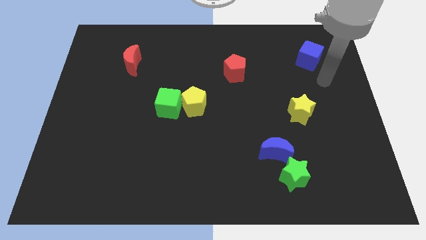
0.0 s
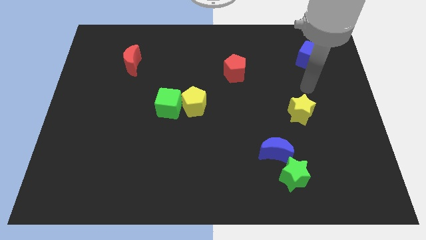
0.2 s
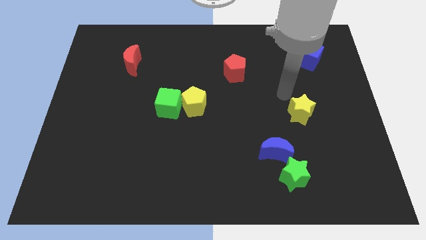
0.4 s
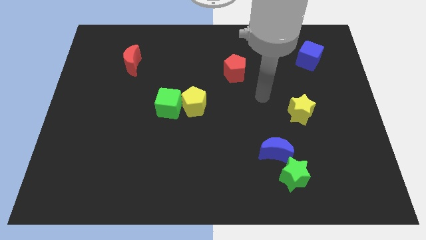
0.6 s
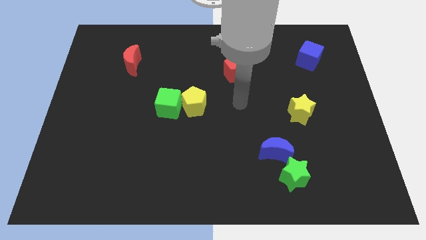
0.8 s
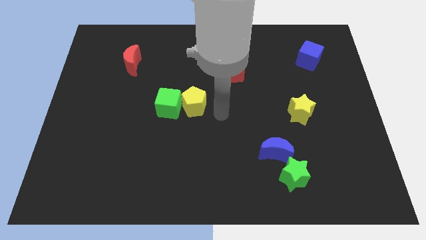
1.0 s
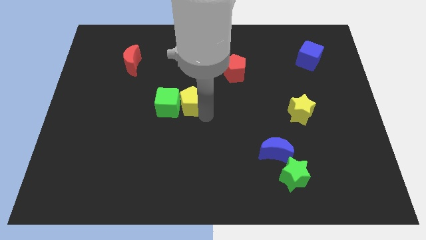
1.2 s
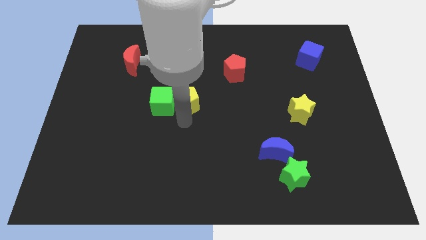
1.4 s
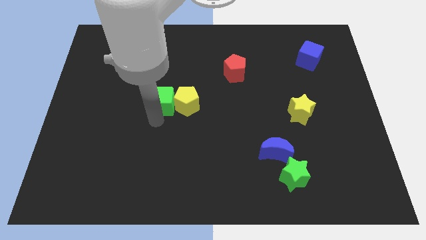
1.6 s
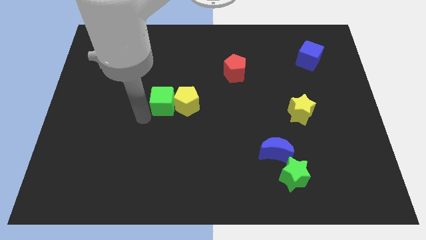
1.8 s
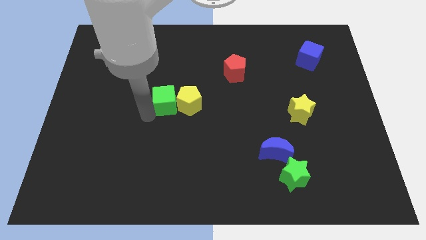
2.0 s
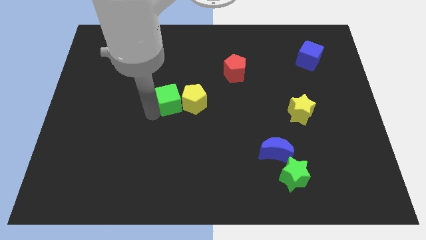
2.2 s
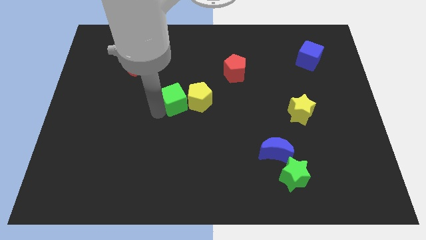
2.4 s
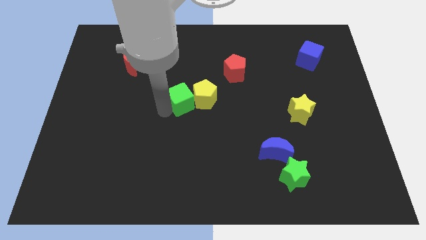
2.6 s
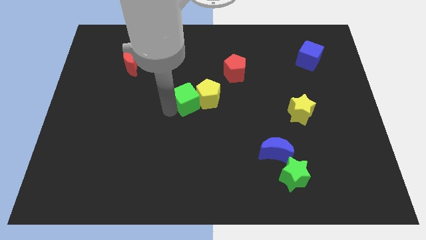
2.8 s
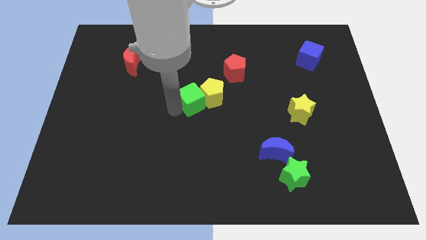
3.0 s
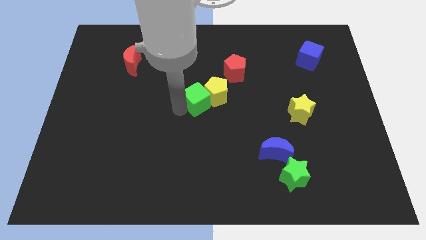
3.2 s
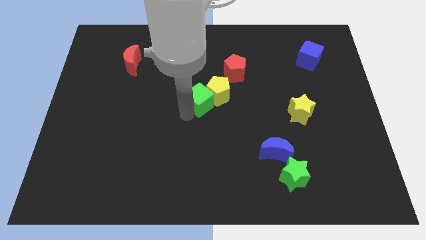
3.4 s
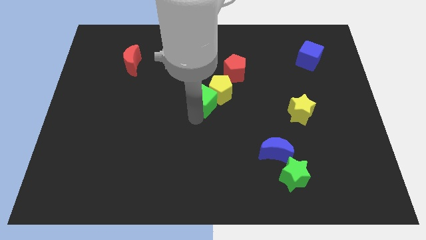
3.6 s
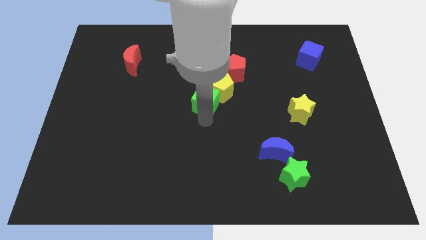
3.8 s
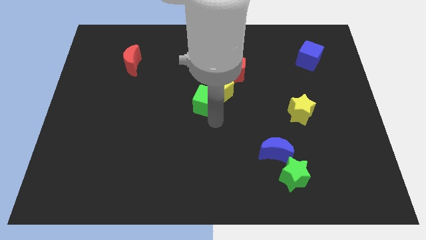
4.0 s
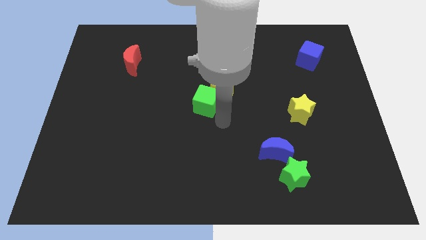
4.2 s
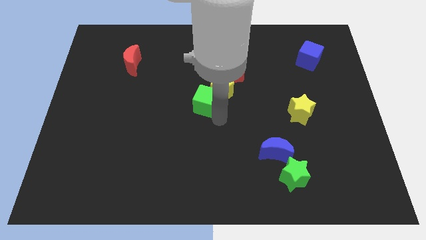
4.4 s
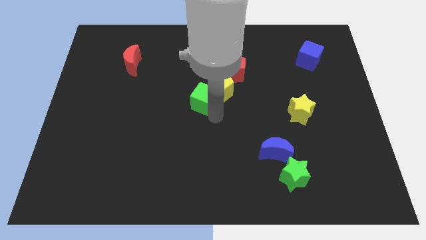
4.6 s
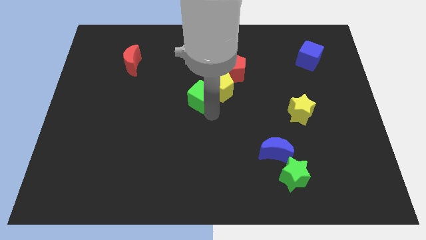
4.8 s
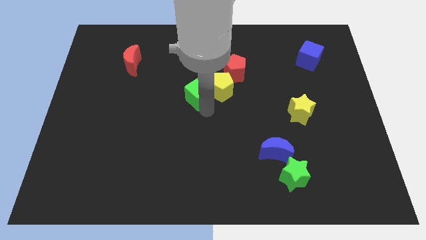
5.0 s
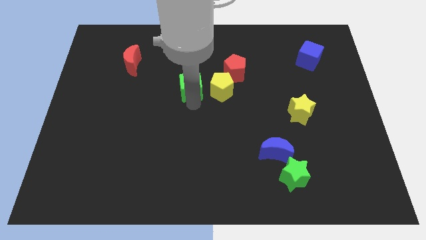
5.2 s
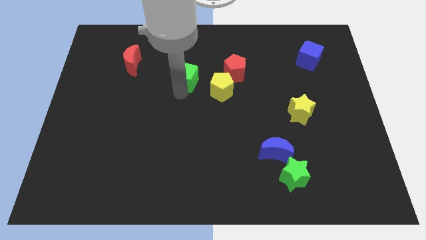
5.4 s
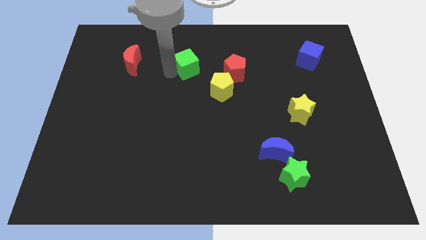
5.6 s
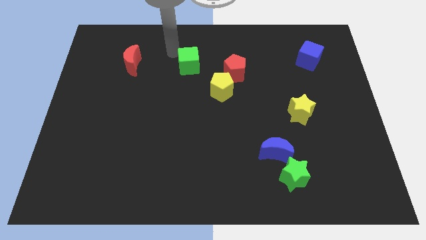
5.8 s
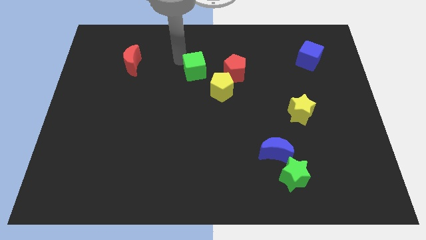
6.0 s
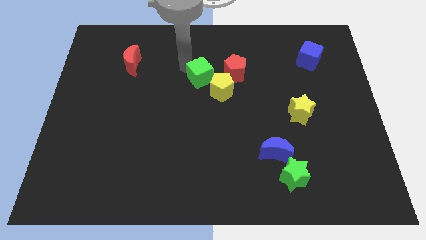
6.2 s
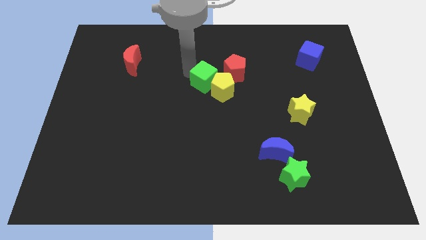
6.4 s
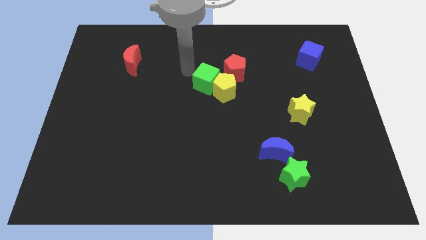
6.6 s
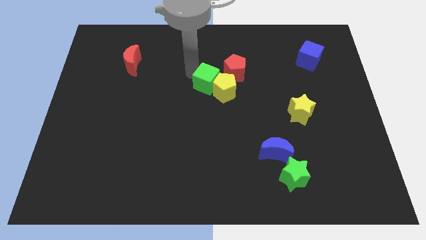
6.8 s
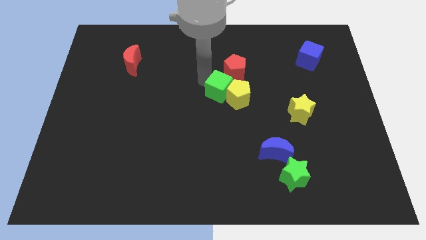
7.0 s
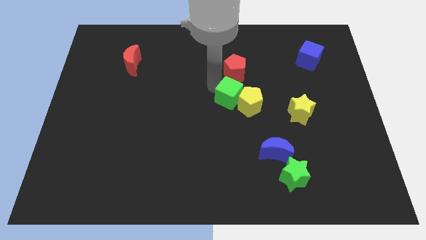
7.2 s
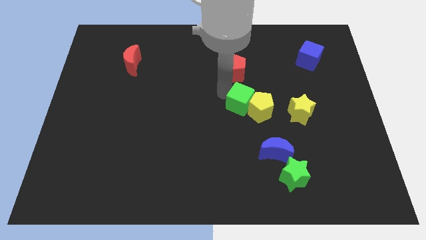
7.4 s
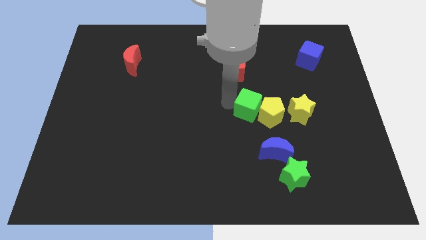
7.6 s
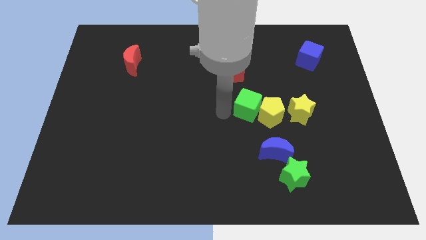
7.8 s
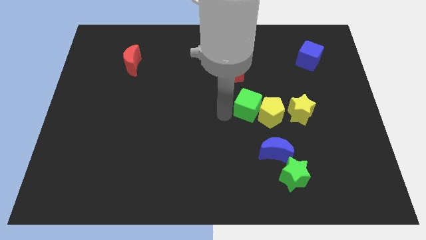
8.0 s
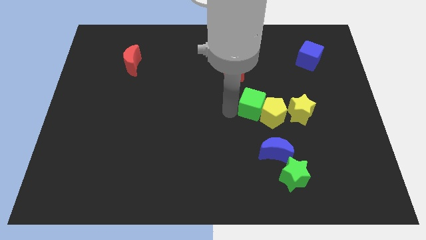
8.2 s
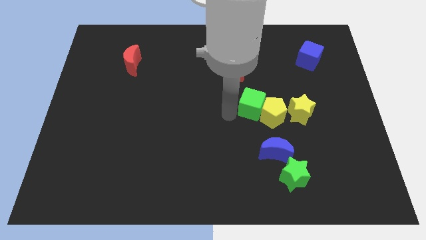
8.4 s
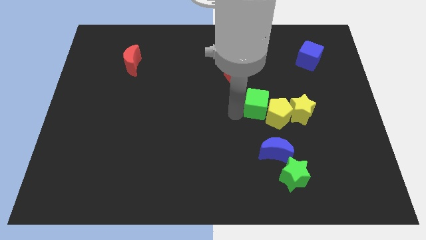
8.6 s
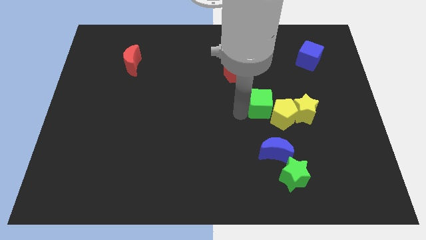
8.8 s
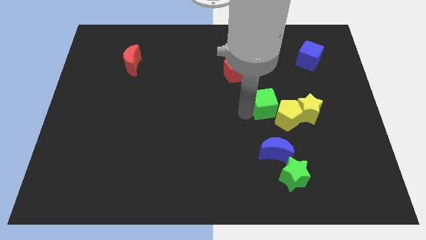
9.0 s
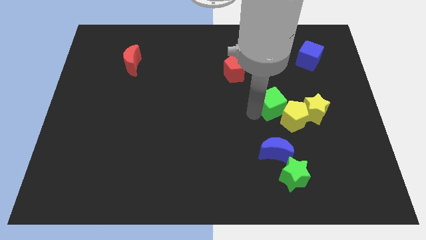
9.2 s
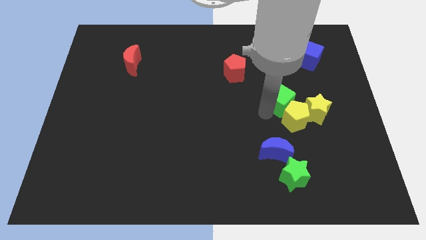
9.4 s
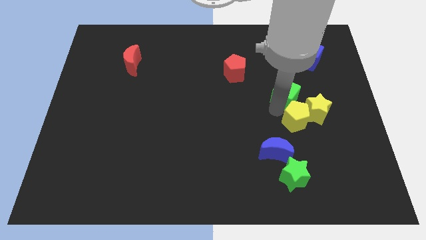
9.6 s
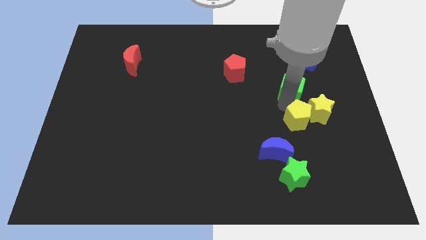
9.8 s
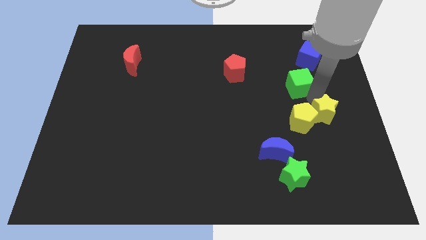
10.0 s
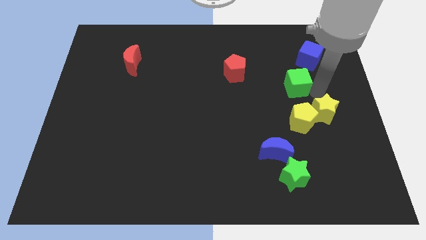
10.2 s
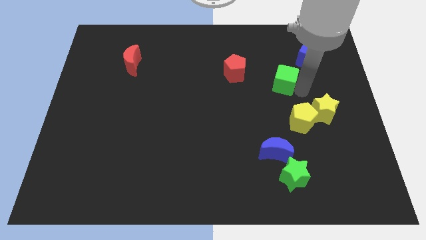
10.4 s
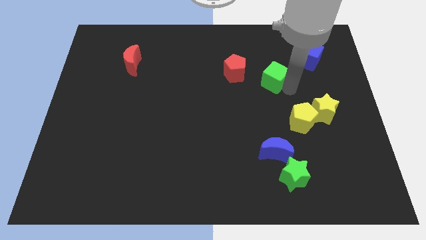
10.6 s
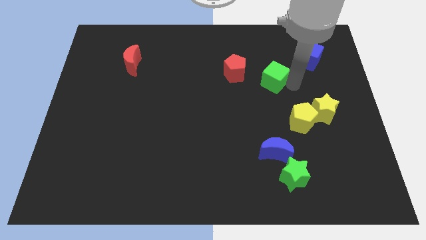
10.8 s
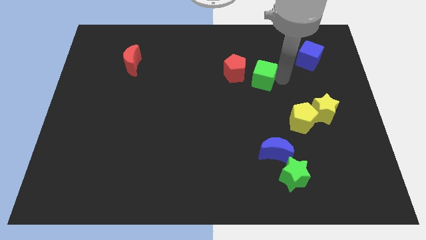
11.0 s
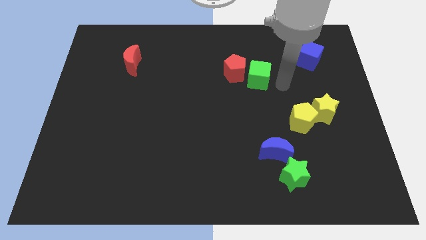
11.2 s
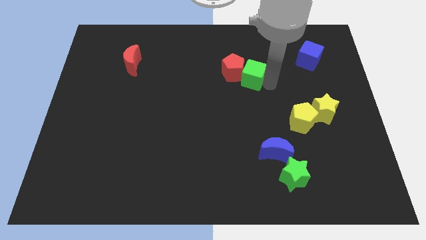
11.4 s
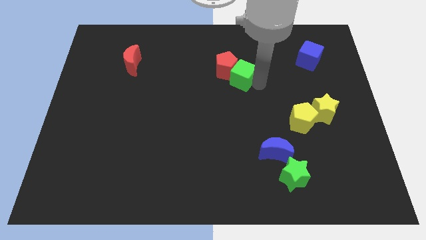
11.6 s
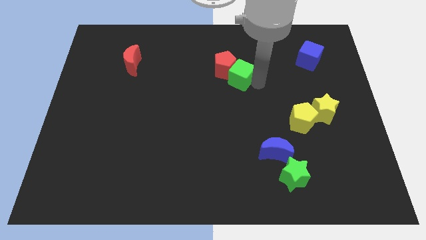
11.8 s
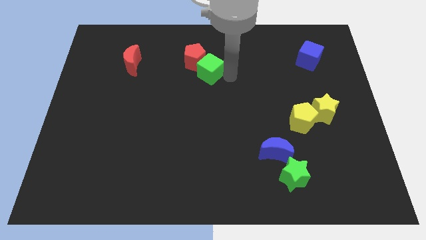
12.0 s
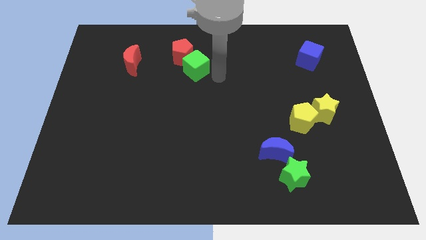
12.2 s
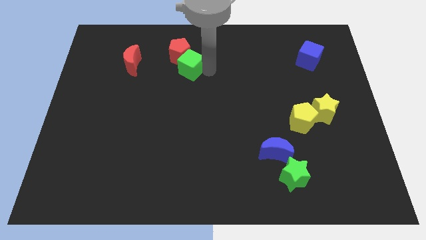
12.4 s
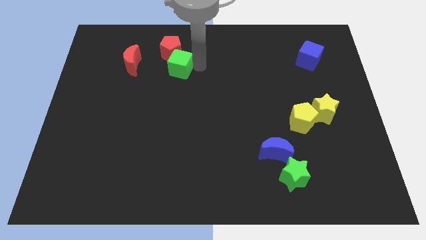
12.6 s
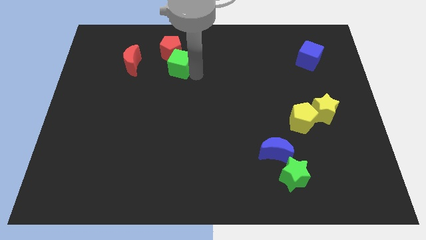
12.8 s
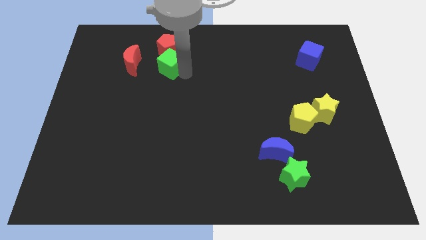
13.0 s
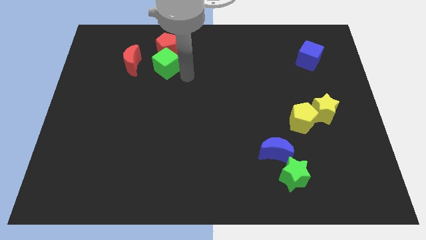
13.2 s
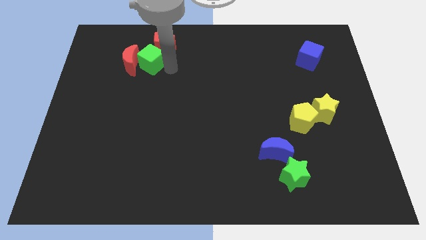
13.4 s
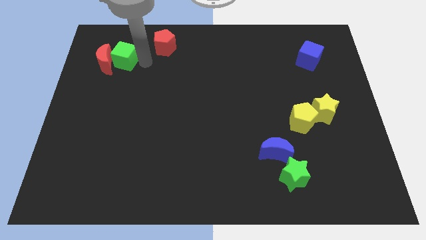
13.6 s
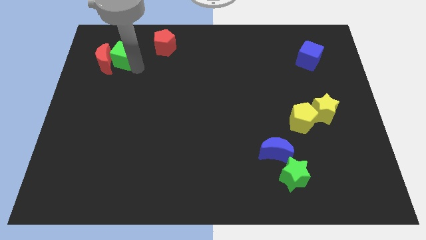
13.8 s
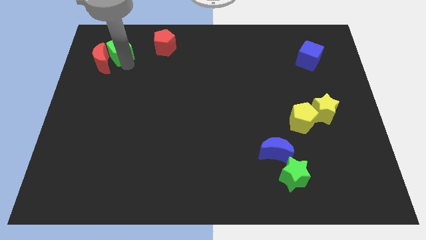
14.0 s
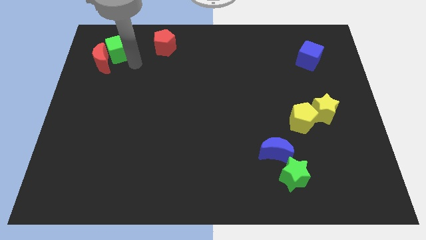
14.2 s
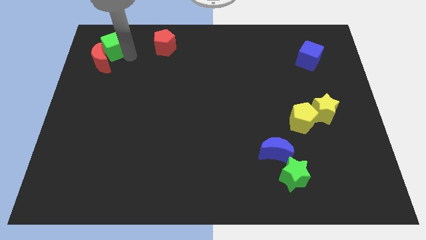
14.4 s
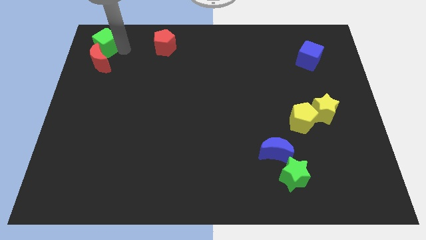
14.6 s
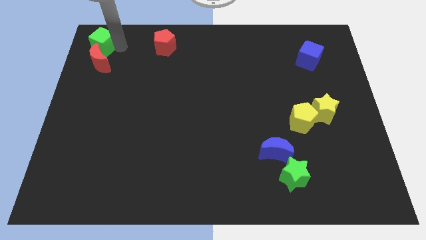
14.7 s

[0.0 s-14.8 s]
move the green cube to the top left corner

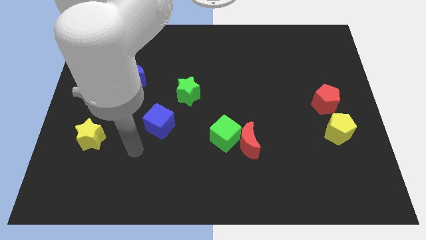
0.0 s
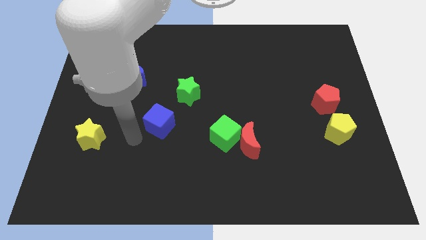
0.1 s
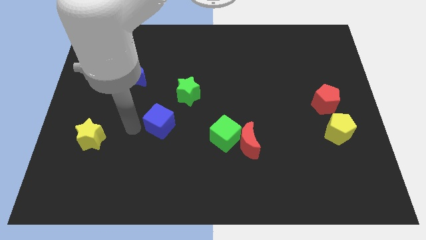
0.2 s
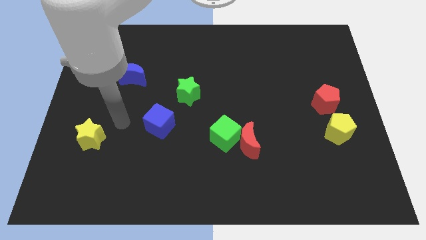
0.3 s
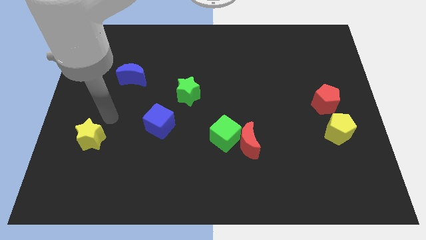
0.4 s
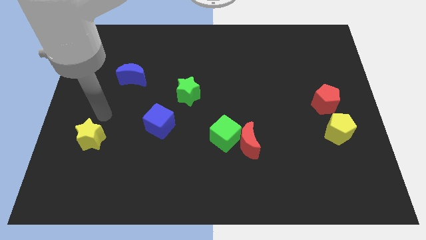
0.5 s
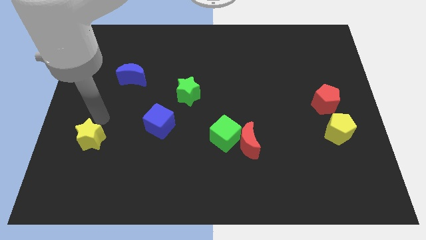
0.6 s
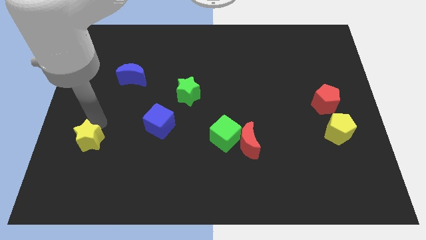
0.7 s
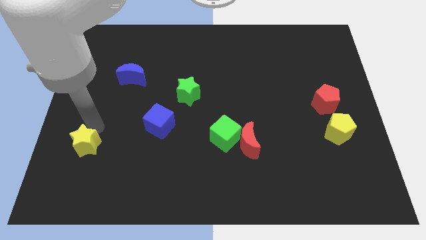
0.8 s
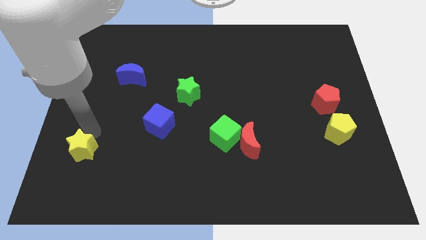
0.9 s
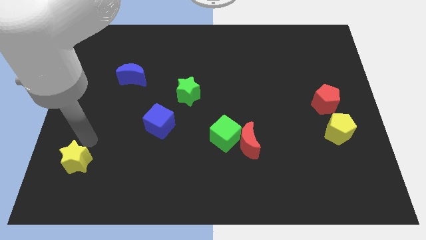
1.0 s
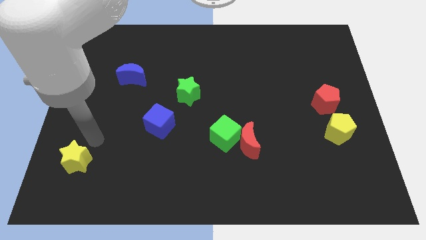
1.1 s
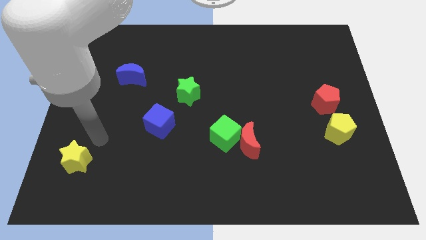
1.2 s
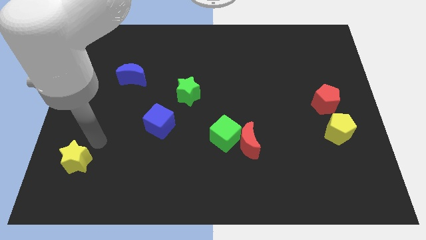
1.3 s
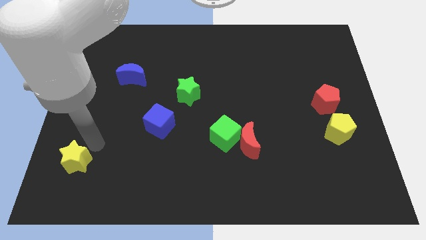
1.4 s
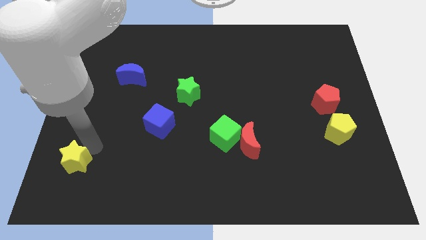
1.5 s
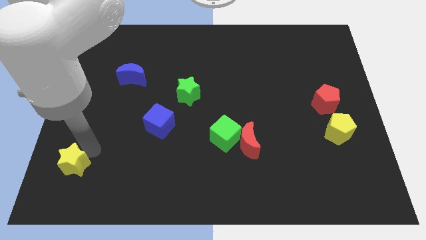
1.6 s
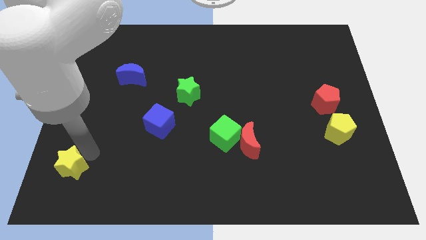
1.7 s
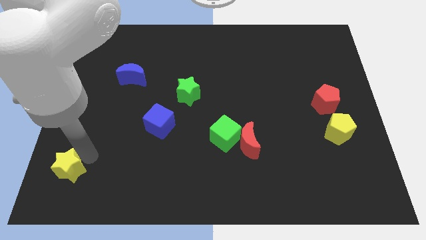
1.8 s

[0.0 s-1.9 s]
push the yellow star to the bottom left corner
